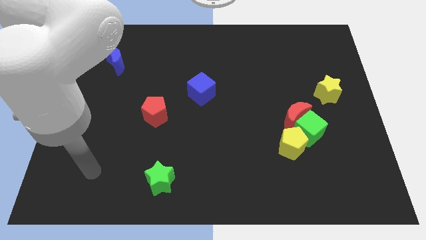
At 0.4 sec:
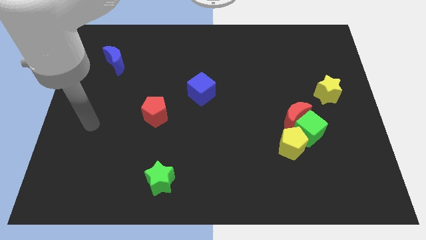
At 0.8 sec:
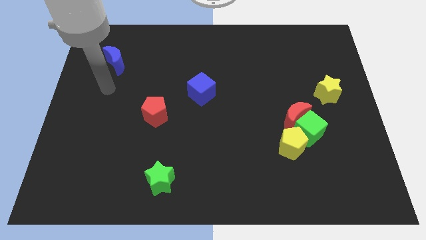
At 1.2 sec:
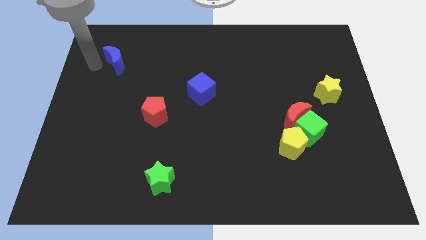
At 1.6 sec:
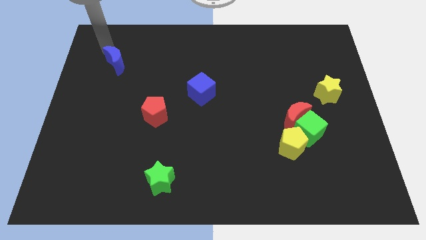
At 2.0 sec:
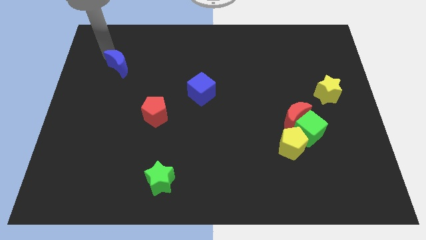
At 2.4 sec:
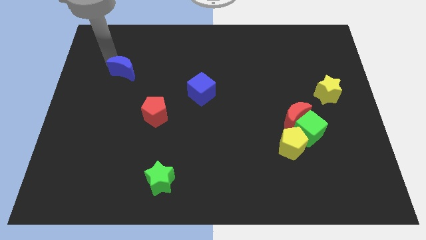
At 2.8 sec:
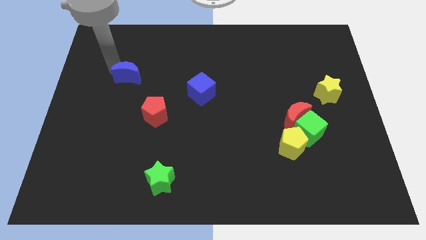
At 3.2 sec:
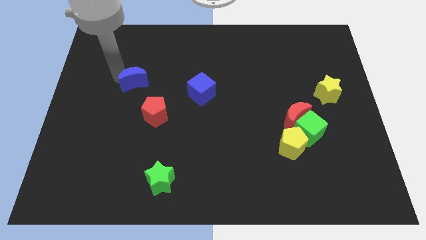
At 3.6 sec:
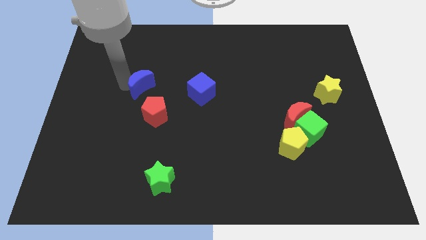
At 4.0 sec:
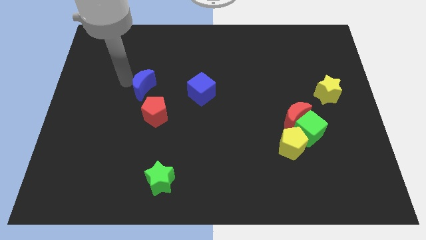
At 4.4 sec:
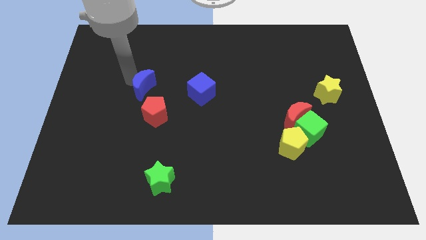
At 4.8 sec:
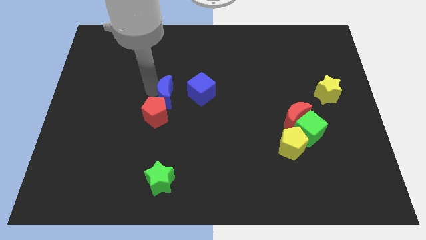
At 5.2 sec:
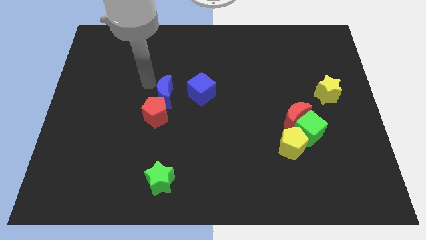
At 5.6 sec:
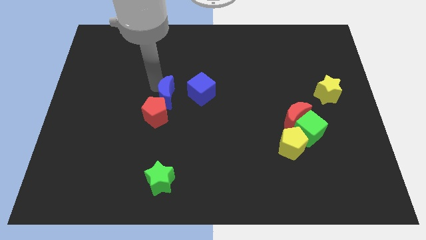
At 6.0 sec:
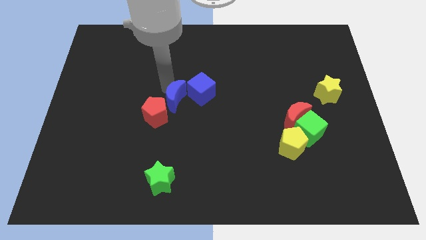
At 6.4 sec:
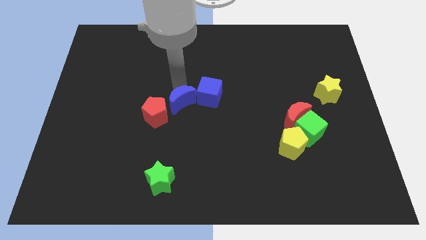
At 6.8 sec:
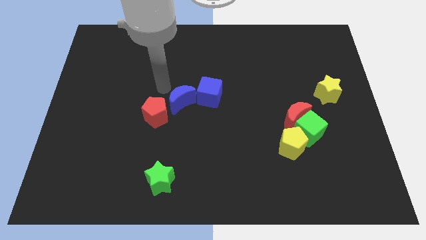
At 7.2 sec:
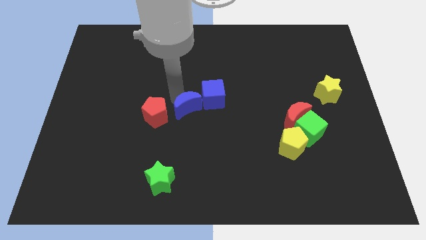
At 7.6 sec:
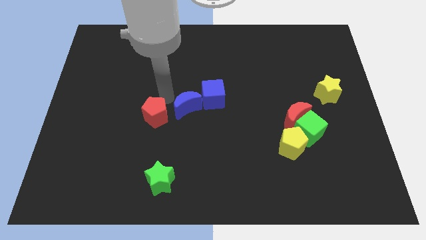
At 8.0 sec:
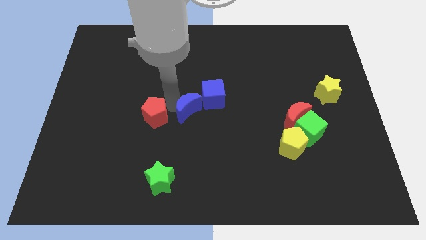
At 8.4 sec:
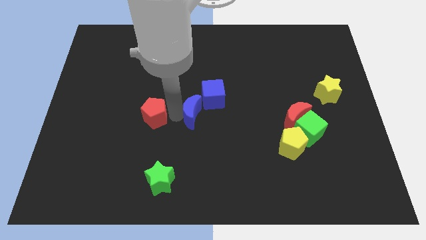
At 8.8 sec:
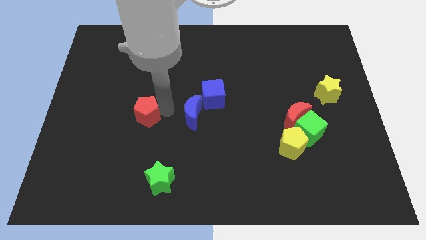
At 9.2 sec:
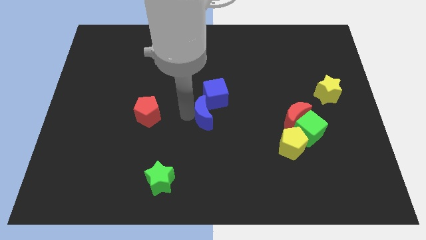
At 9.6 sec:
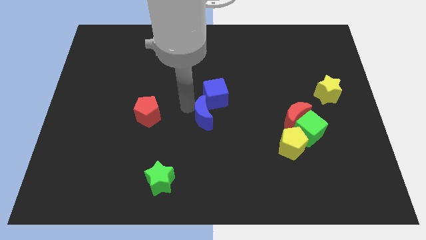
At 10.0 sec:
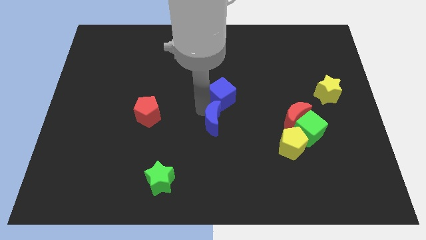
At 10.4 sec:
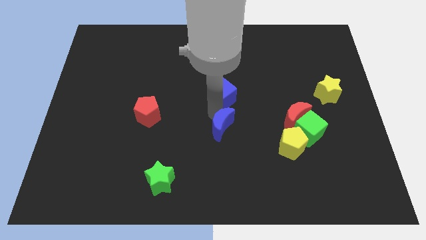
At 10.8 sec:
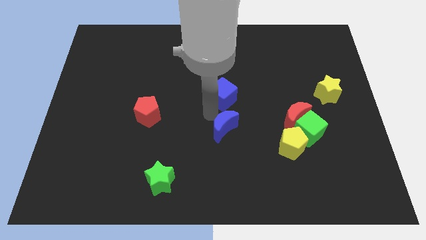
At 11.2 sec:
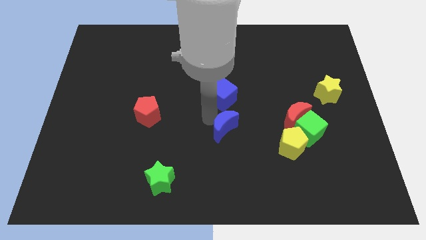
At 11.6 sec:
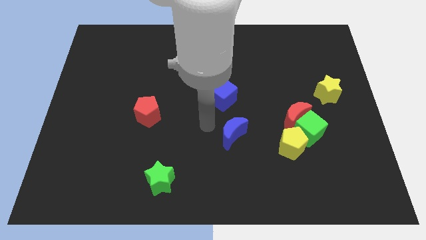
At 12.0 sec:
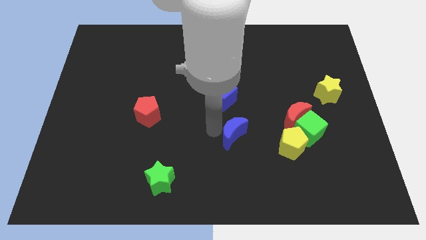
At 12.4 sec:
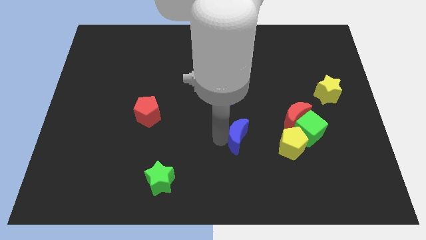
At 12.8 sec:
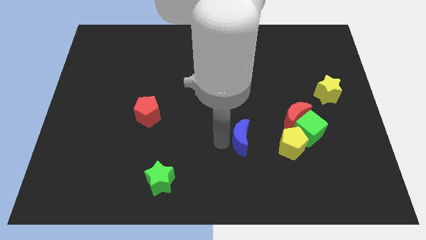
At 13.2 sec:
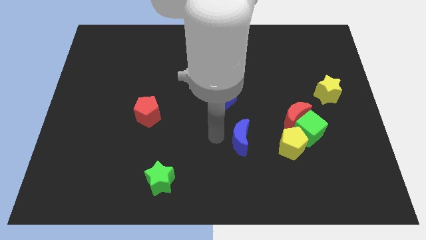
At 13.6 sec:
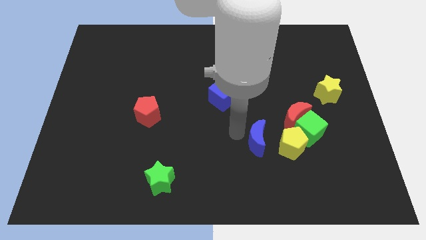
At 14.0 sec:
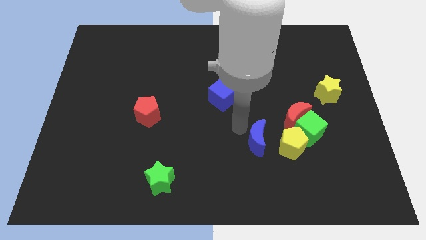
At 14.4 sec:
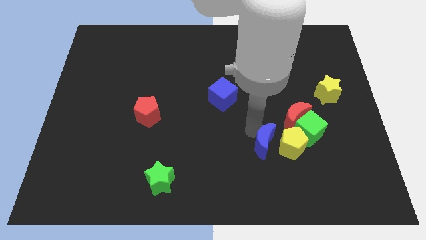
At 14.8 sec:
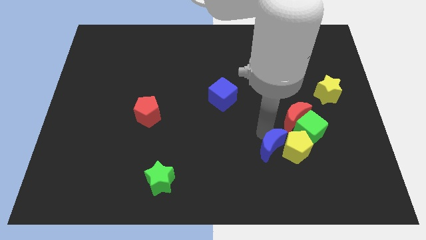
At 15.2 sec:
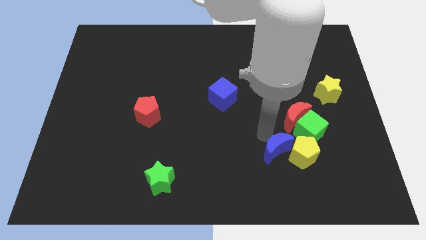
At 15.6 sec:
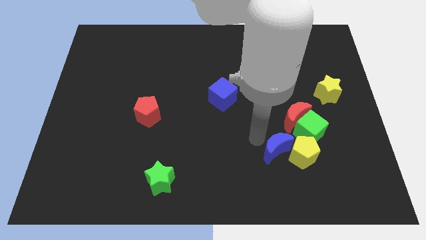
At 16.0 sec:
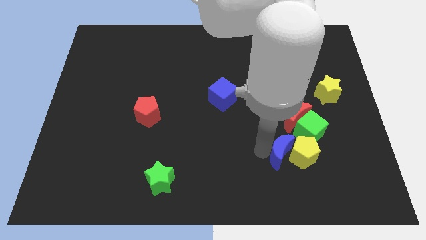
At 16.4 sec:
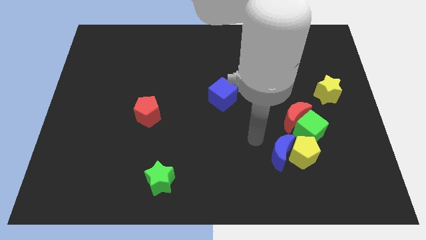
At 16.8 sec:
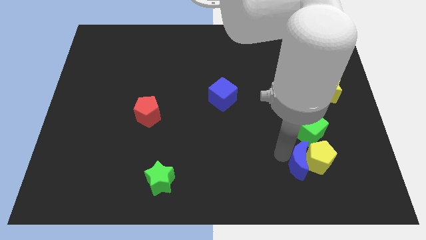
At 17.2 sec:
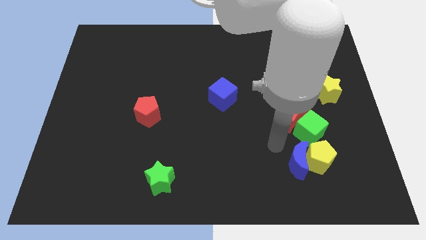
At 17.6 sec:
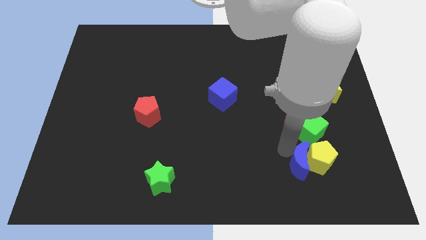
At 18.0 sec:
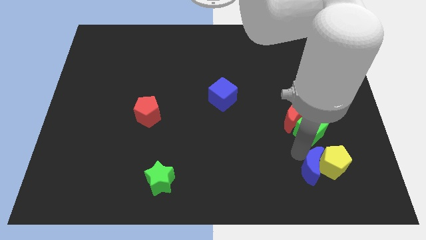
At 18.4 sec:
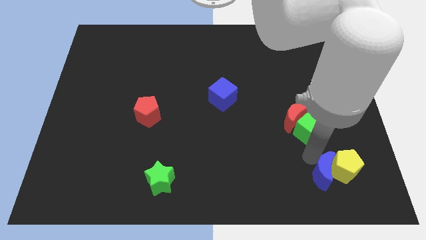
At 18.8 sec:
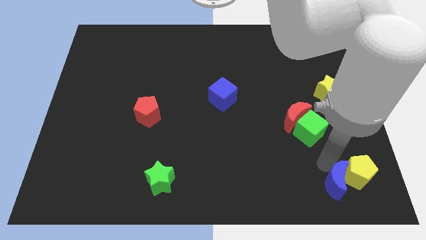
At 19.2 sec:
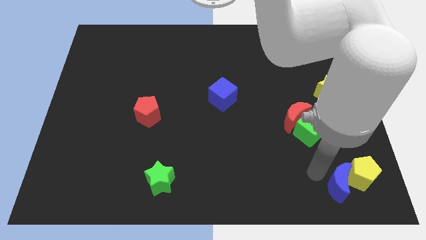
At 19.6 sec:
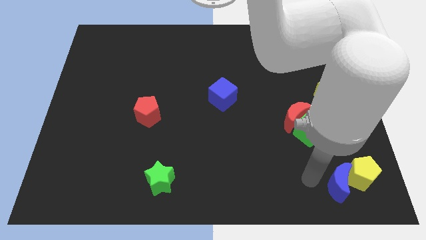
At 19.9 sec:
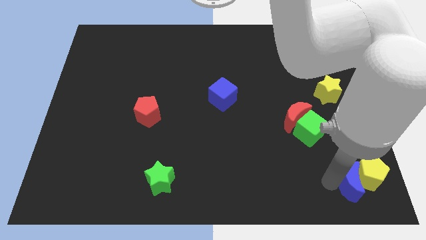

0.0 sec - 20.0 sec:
move the blue moon to the bottom right corner

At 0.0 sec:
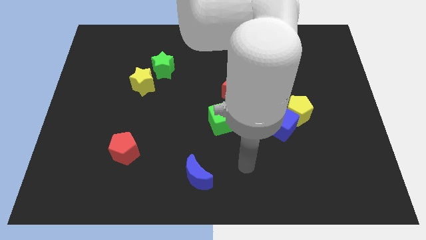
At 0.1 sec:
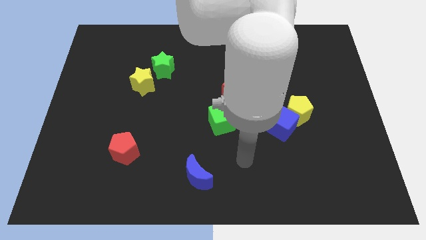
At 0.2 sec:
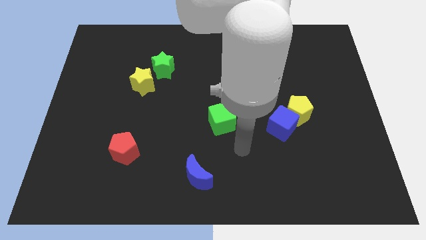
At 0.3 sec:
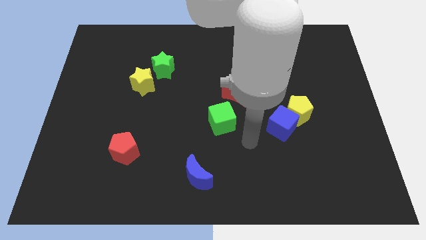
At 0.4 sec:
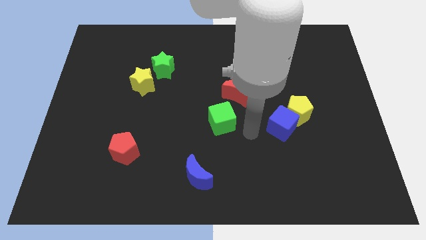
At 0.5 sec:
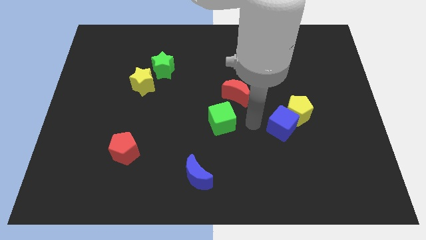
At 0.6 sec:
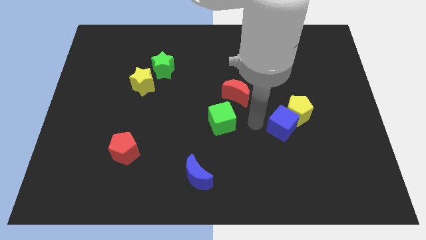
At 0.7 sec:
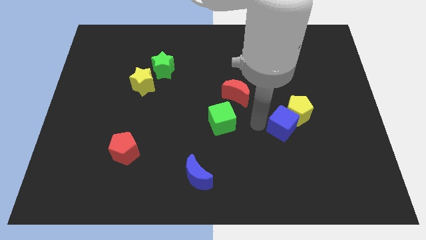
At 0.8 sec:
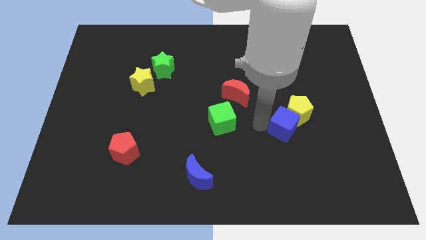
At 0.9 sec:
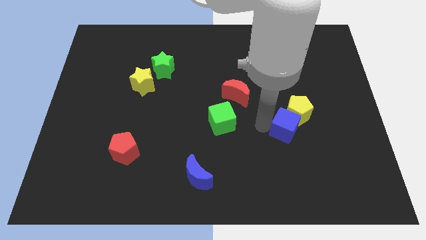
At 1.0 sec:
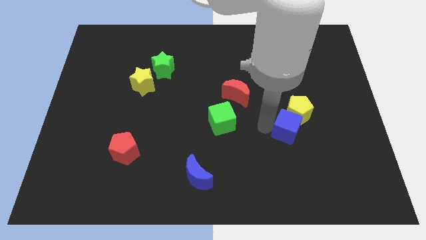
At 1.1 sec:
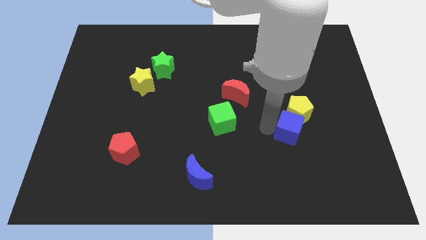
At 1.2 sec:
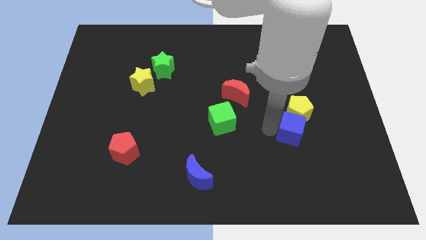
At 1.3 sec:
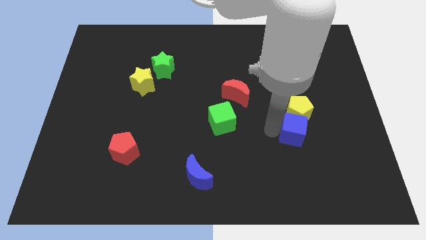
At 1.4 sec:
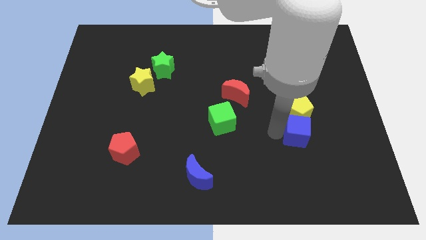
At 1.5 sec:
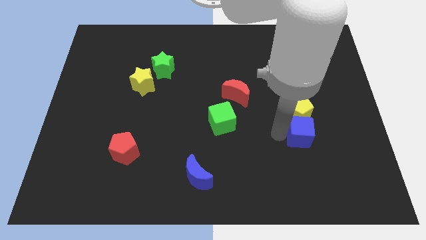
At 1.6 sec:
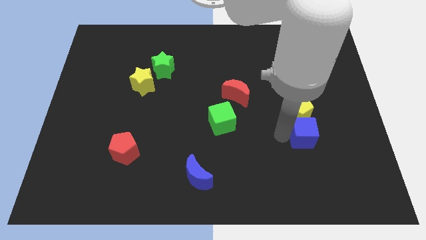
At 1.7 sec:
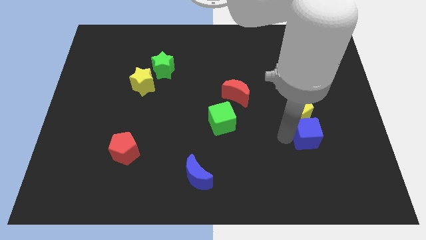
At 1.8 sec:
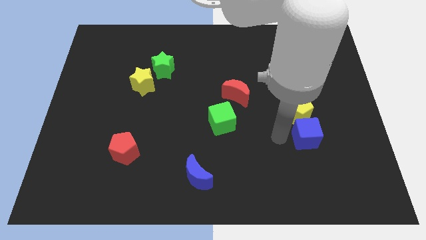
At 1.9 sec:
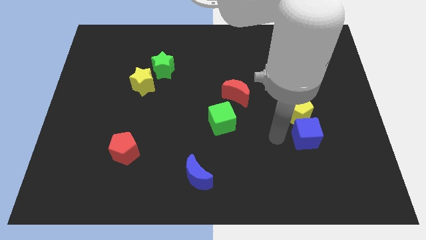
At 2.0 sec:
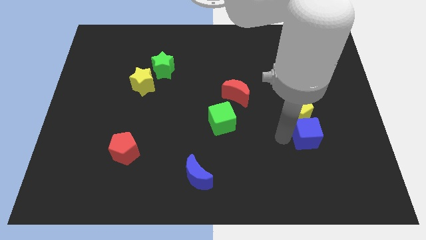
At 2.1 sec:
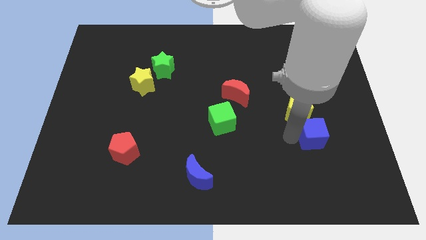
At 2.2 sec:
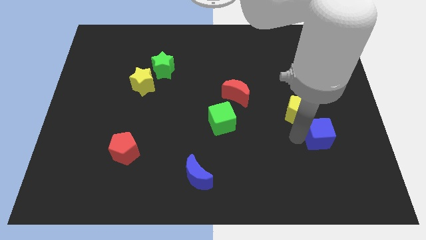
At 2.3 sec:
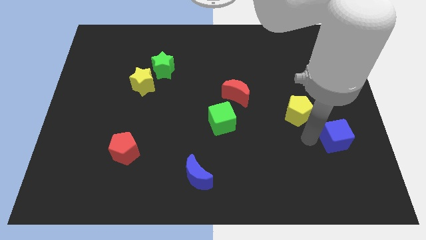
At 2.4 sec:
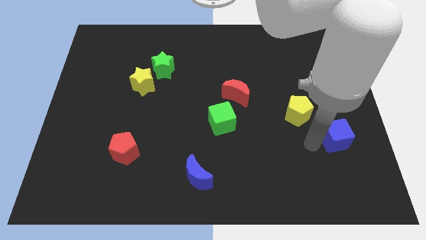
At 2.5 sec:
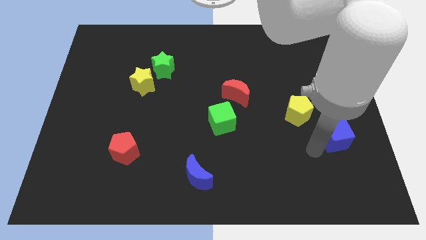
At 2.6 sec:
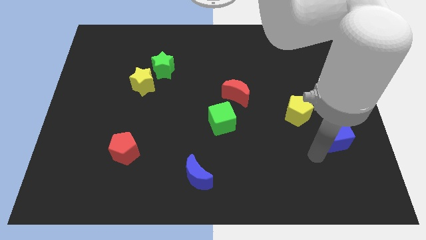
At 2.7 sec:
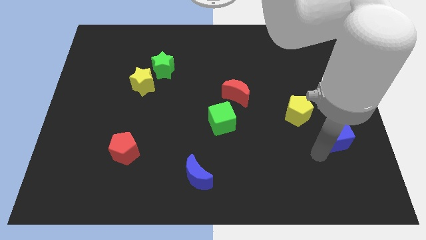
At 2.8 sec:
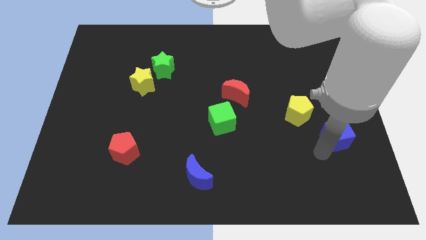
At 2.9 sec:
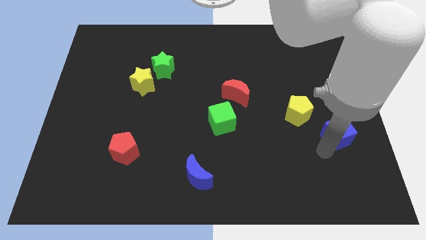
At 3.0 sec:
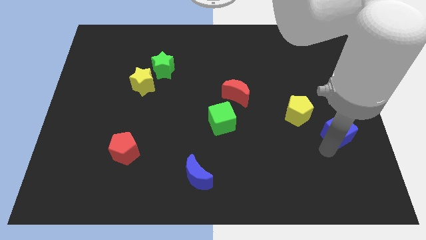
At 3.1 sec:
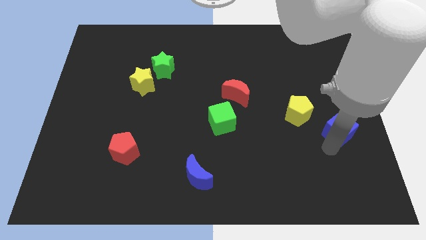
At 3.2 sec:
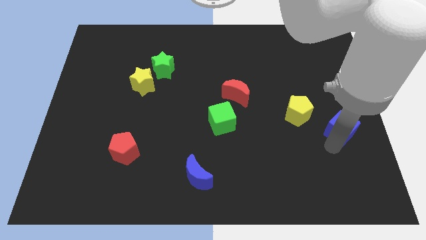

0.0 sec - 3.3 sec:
move the blue cube to the right side
